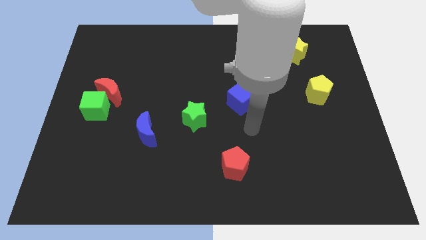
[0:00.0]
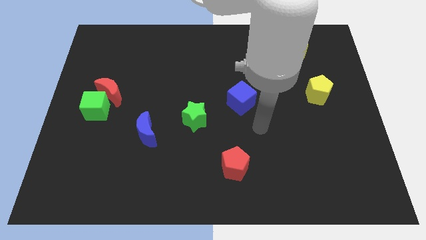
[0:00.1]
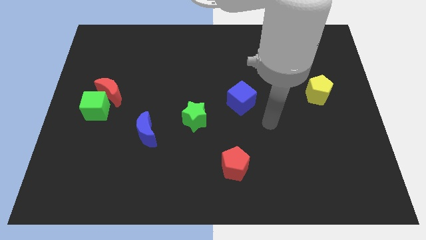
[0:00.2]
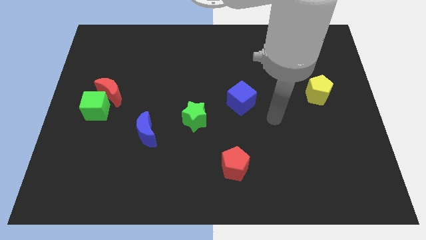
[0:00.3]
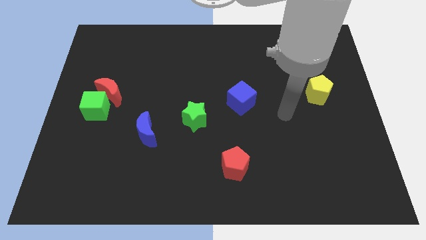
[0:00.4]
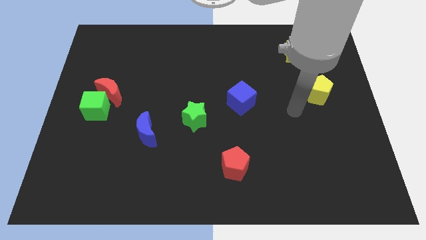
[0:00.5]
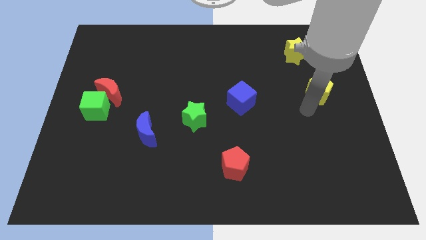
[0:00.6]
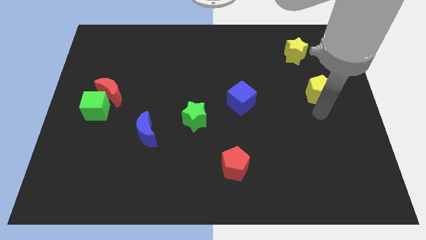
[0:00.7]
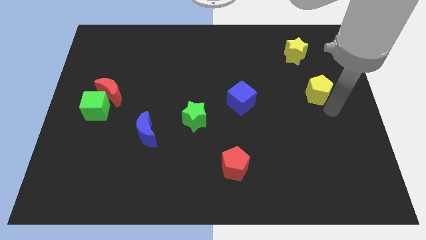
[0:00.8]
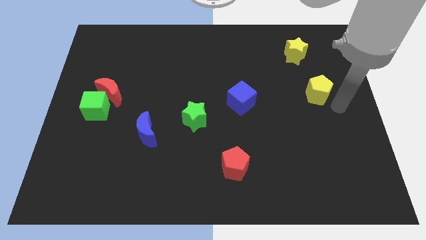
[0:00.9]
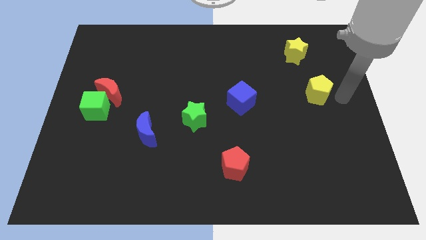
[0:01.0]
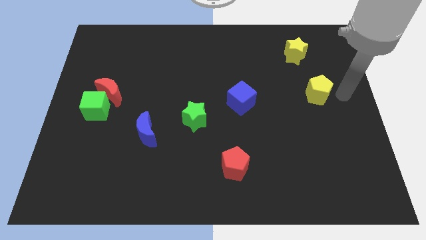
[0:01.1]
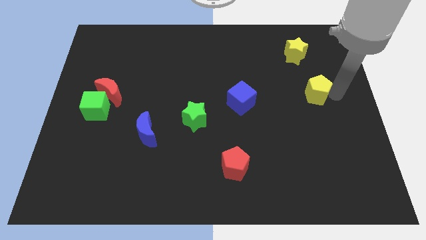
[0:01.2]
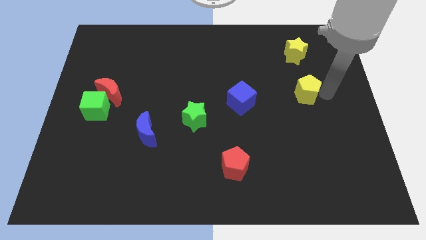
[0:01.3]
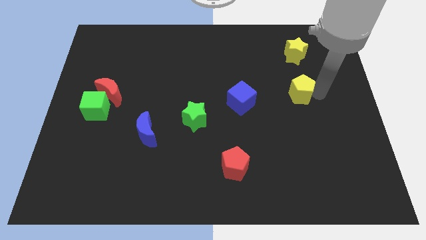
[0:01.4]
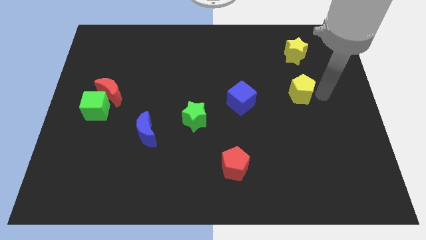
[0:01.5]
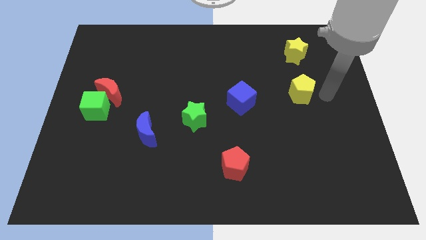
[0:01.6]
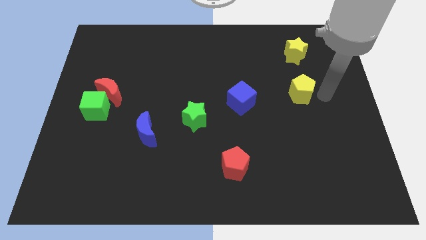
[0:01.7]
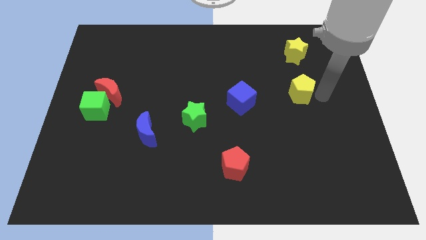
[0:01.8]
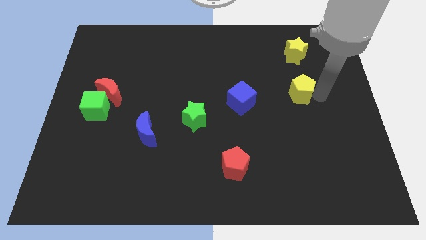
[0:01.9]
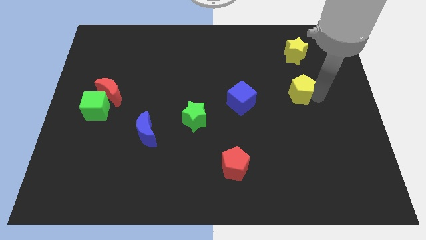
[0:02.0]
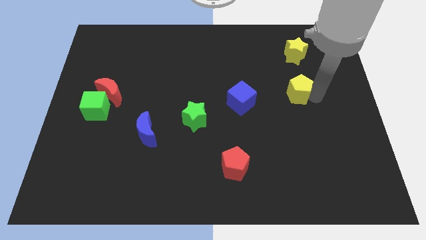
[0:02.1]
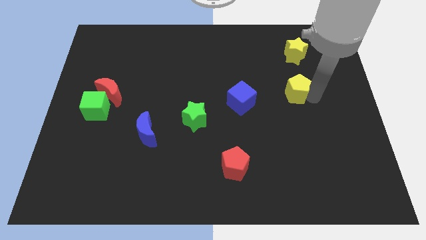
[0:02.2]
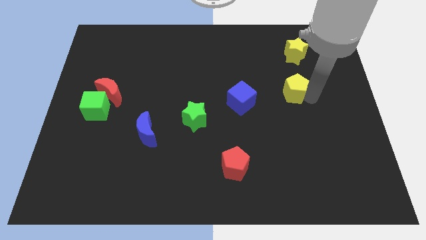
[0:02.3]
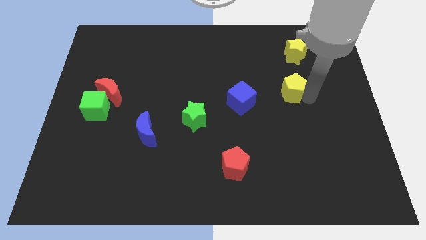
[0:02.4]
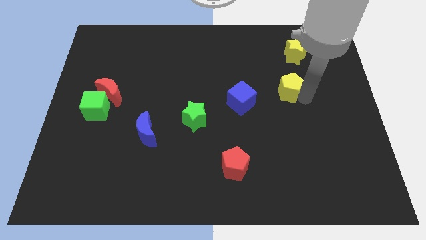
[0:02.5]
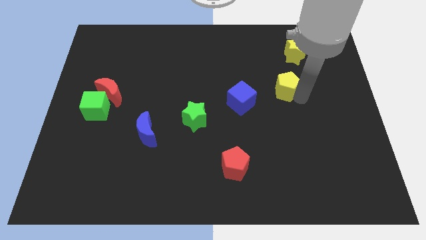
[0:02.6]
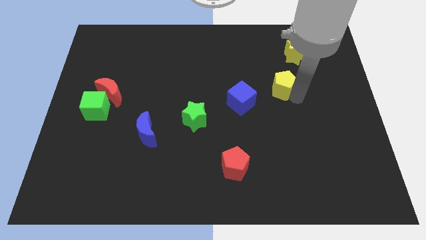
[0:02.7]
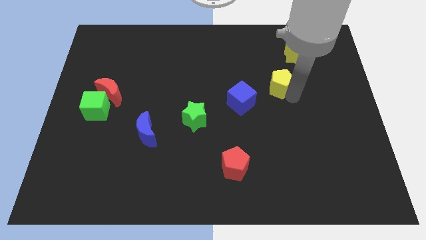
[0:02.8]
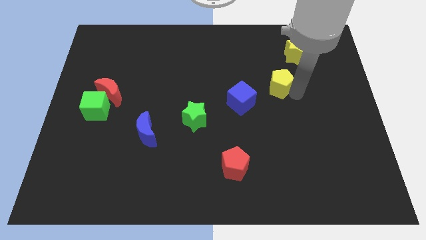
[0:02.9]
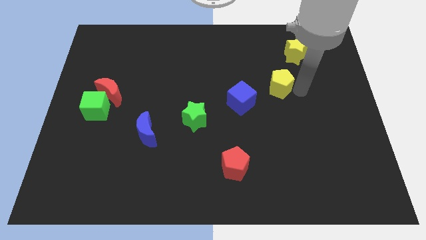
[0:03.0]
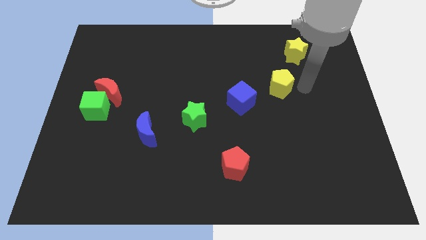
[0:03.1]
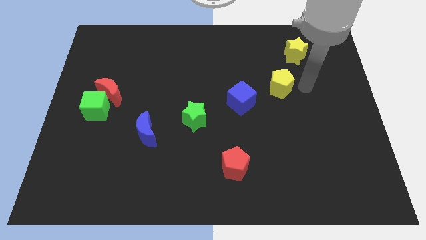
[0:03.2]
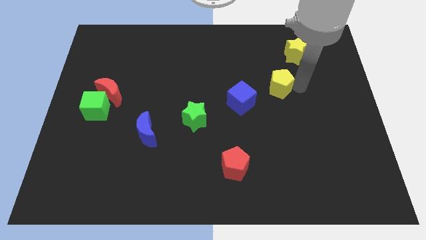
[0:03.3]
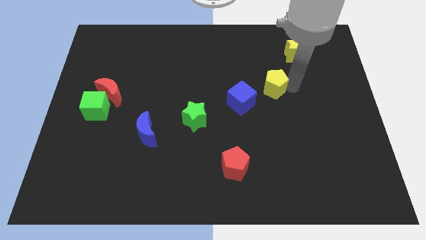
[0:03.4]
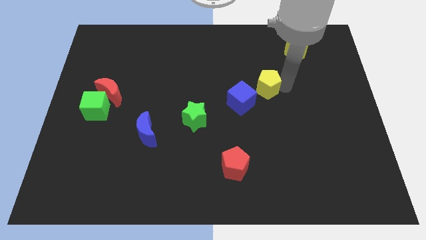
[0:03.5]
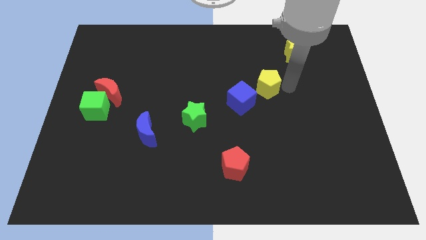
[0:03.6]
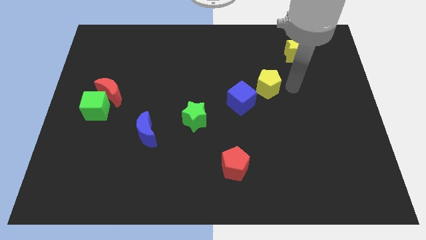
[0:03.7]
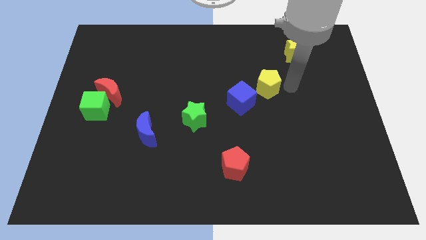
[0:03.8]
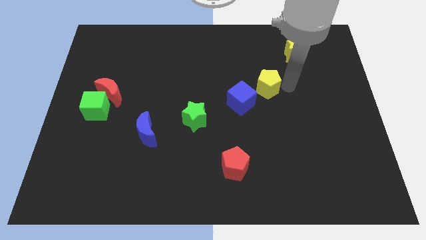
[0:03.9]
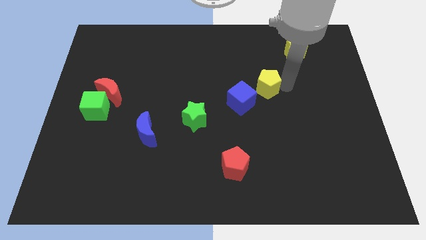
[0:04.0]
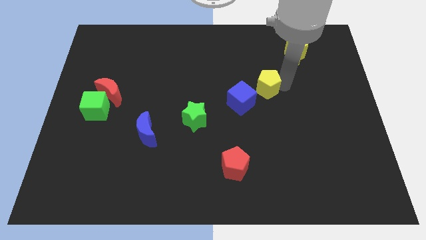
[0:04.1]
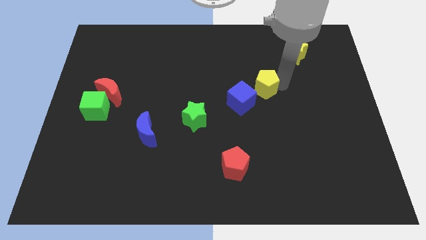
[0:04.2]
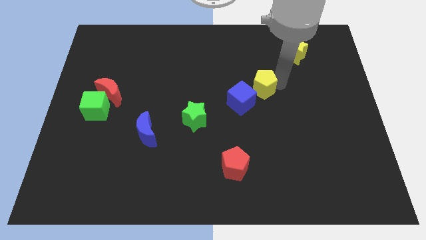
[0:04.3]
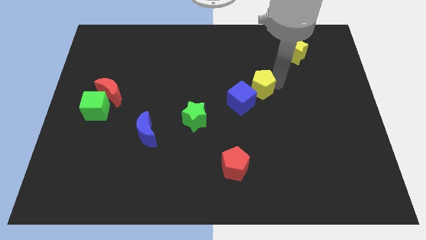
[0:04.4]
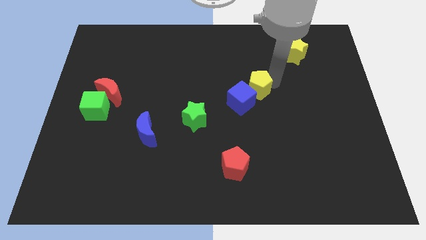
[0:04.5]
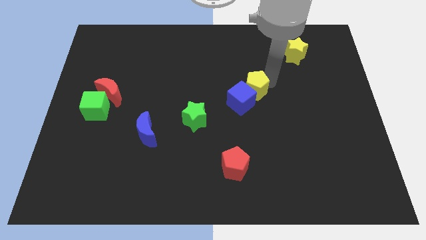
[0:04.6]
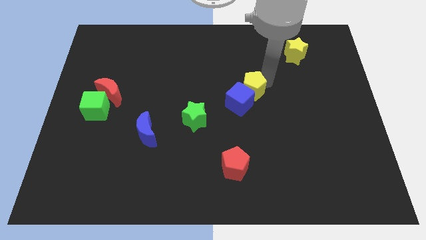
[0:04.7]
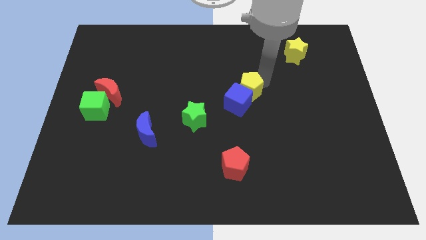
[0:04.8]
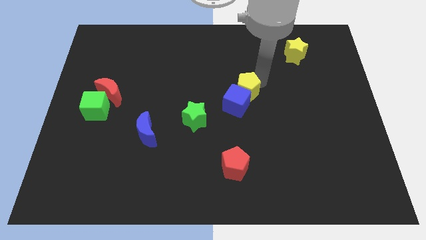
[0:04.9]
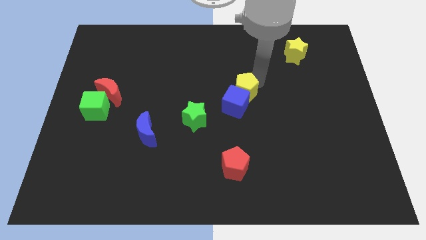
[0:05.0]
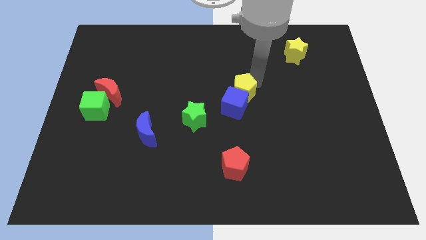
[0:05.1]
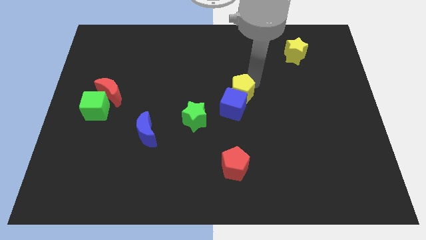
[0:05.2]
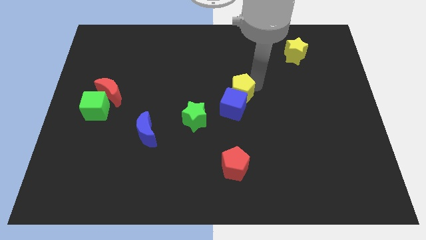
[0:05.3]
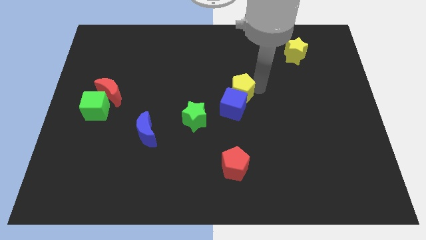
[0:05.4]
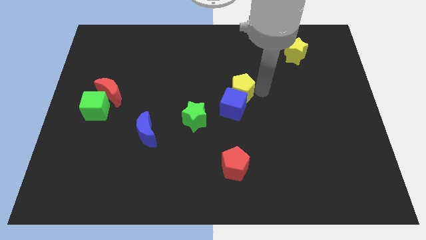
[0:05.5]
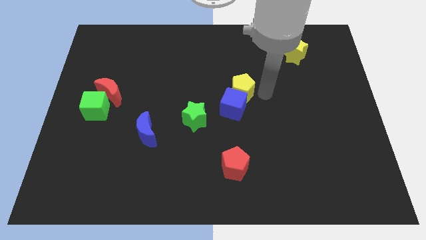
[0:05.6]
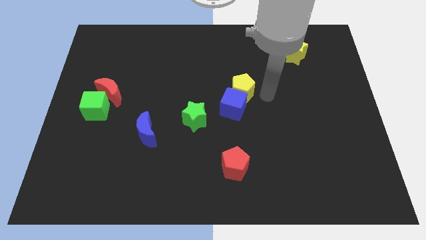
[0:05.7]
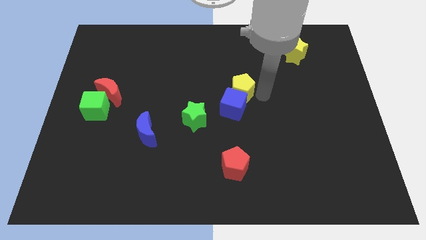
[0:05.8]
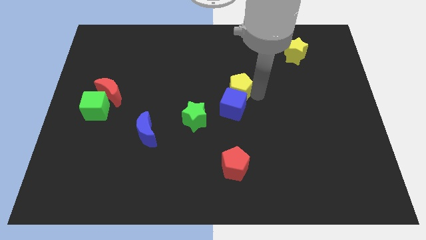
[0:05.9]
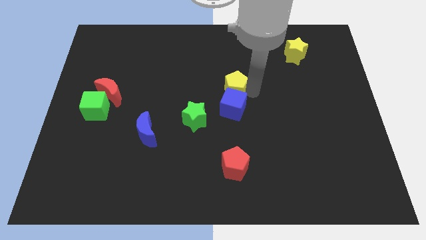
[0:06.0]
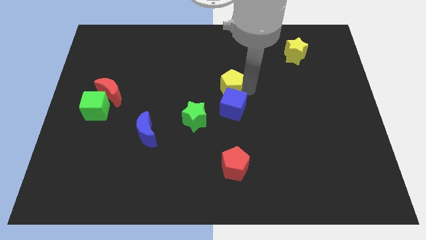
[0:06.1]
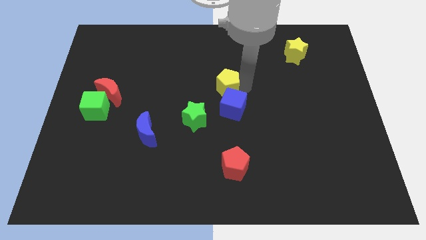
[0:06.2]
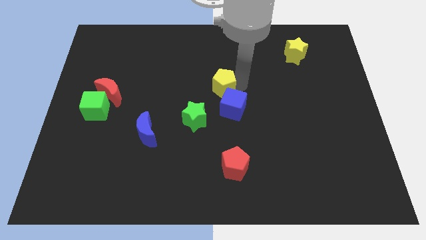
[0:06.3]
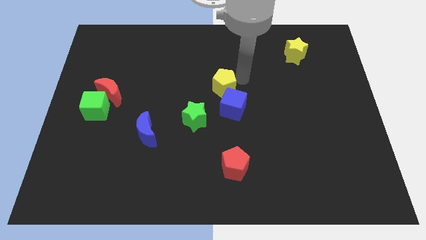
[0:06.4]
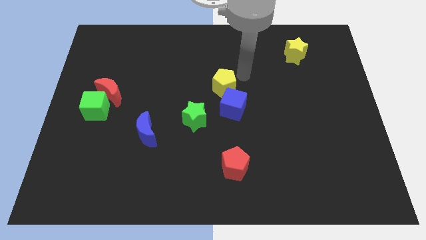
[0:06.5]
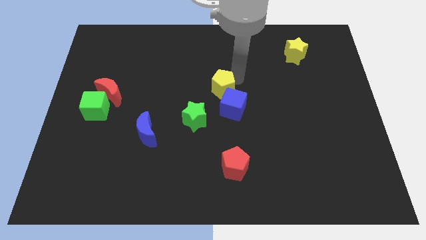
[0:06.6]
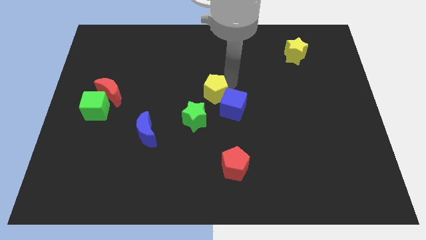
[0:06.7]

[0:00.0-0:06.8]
slide the yellow pentagon left of the blue cube
